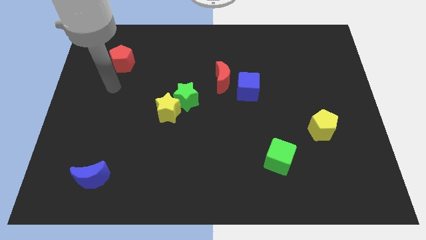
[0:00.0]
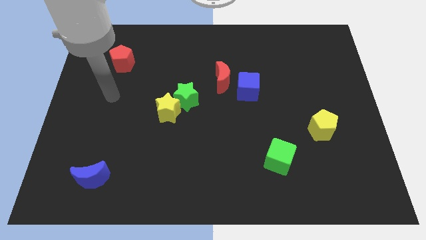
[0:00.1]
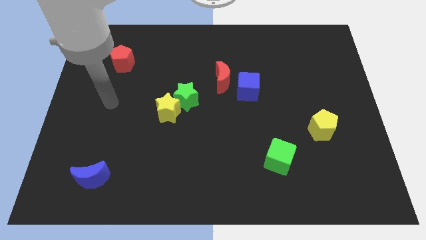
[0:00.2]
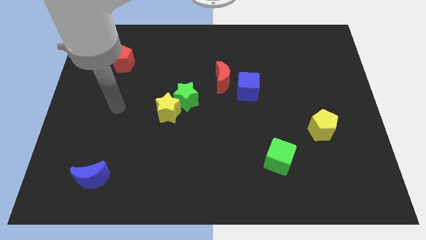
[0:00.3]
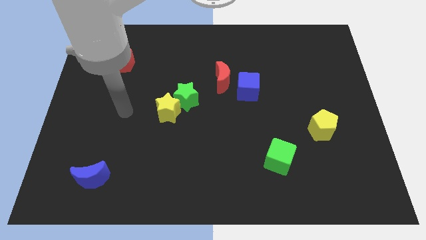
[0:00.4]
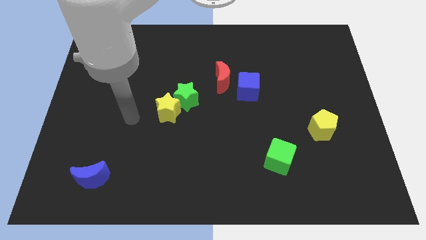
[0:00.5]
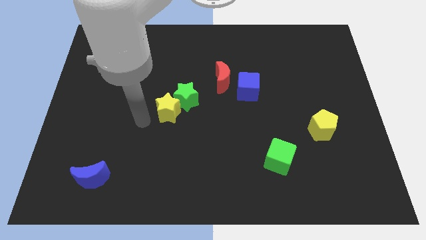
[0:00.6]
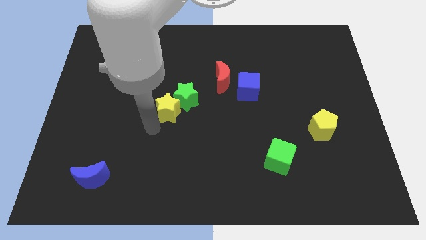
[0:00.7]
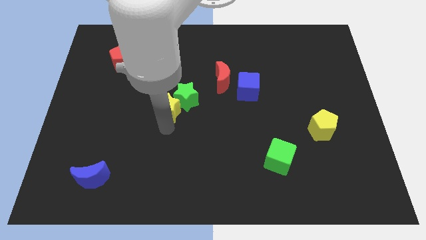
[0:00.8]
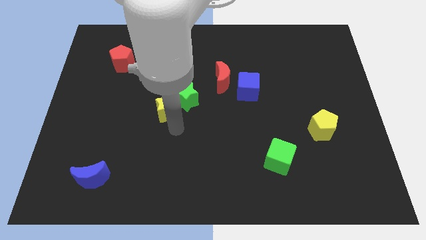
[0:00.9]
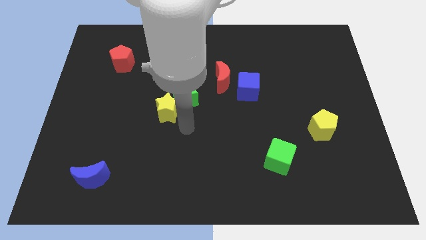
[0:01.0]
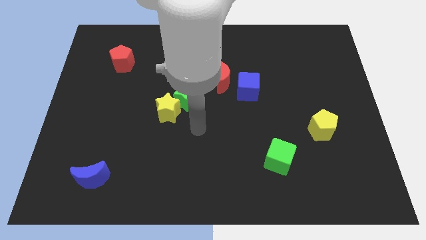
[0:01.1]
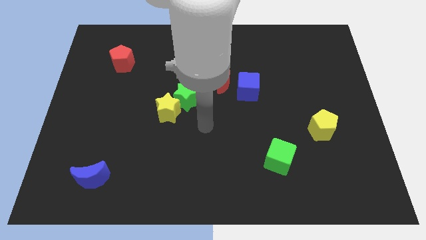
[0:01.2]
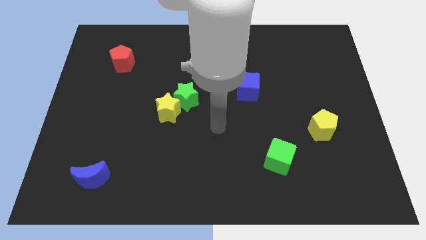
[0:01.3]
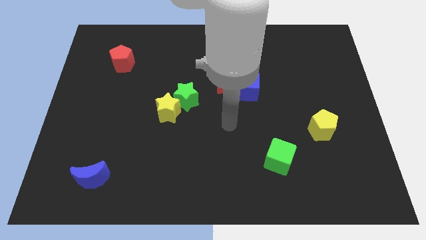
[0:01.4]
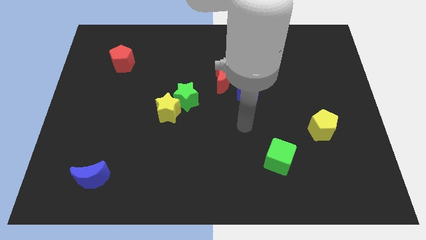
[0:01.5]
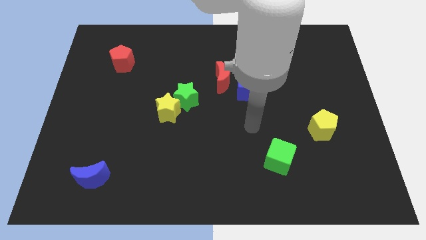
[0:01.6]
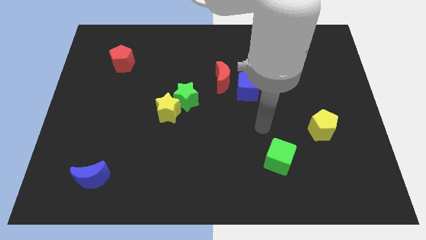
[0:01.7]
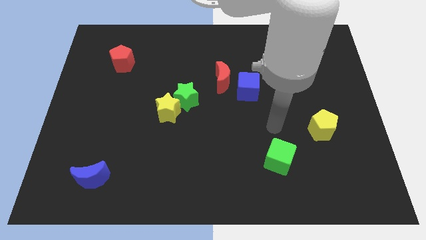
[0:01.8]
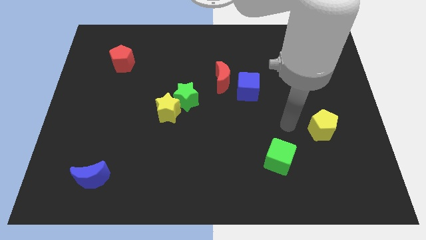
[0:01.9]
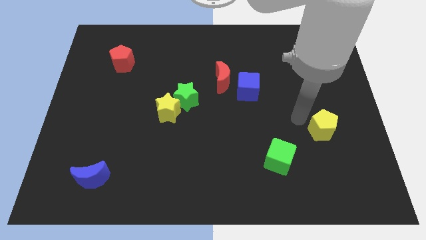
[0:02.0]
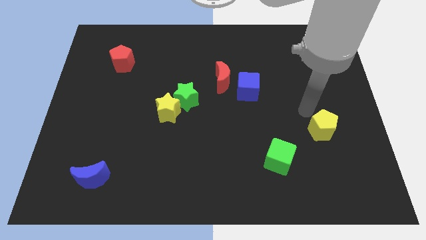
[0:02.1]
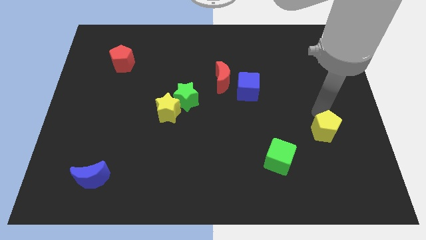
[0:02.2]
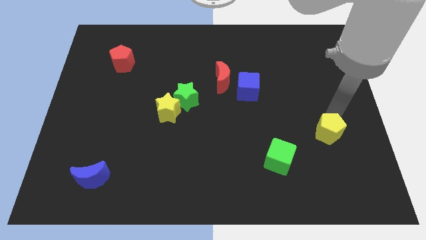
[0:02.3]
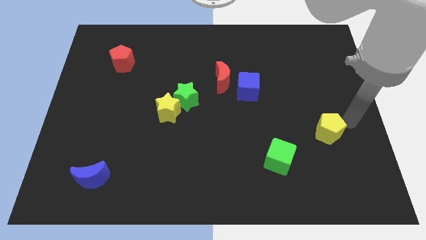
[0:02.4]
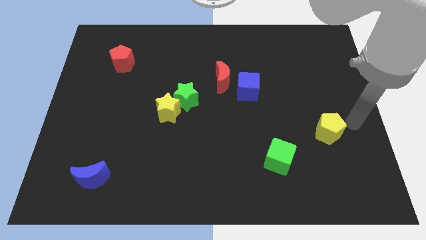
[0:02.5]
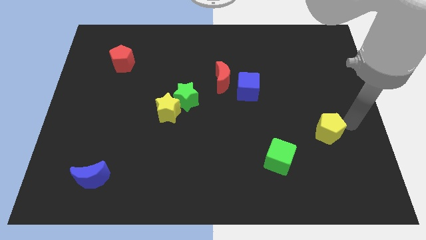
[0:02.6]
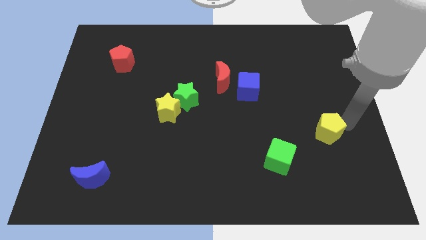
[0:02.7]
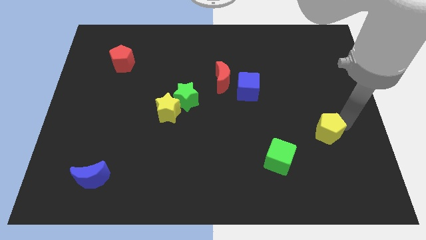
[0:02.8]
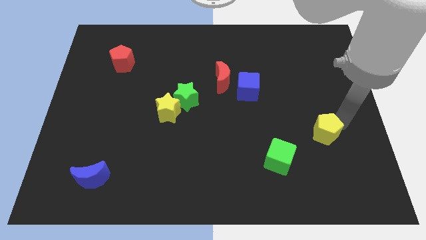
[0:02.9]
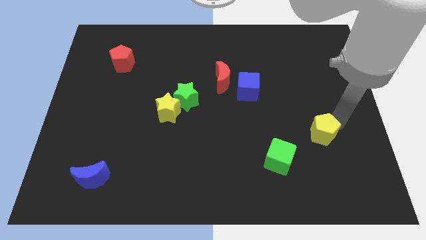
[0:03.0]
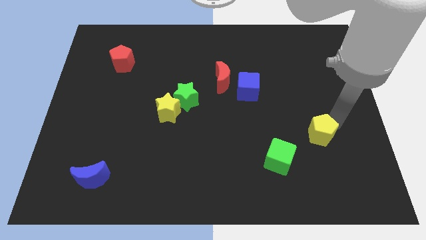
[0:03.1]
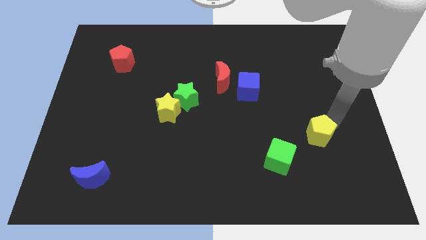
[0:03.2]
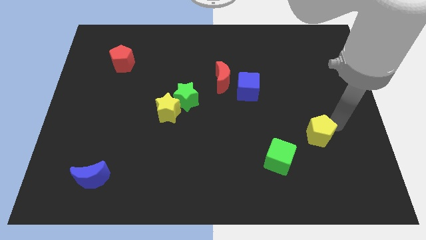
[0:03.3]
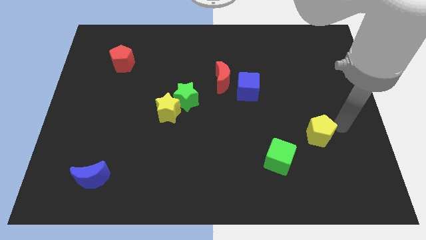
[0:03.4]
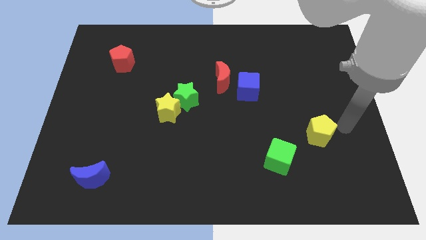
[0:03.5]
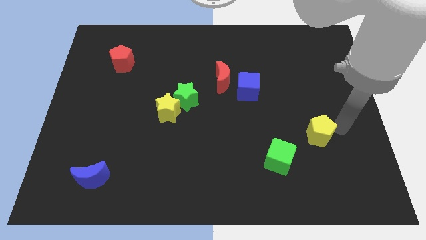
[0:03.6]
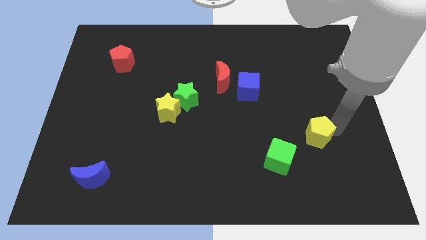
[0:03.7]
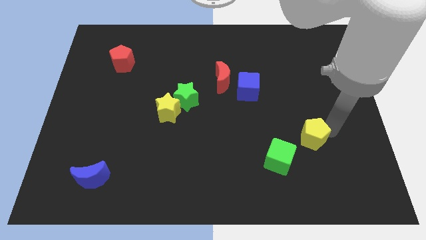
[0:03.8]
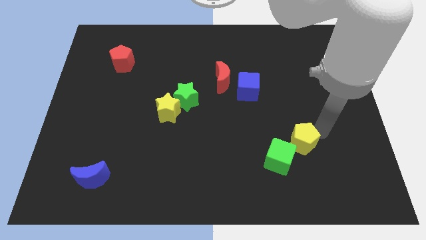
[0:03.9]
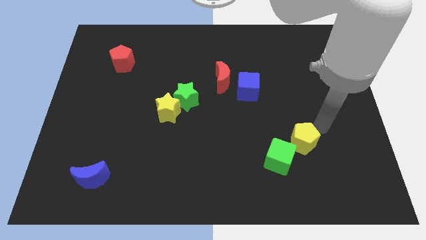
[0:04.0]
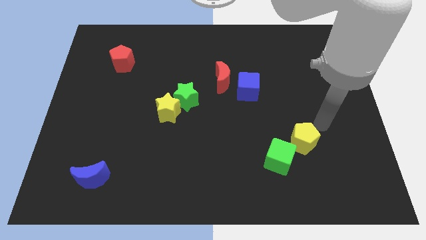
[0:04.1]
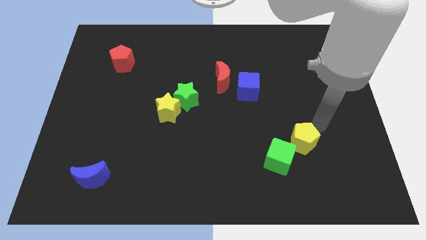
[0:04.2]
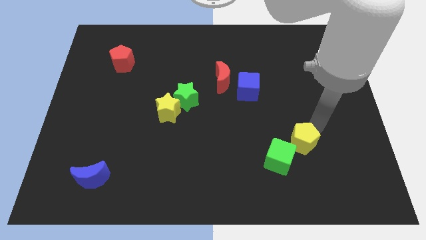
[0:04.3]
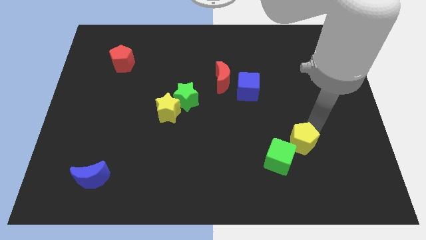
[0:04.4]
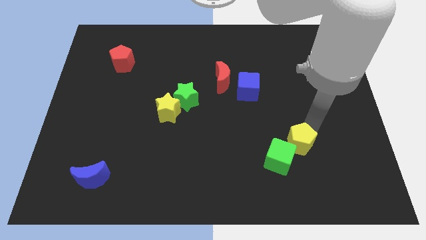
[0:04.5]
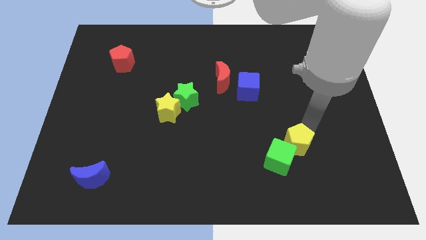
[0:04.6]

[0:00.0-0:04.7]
move the yellow pentagon next to the green cube

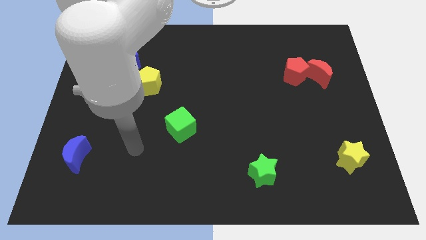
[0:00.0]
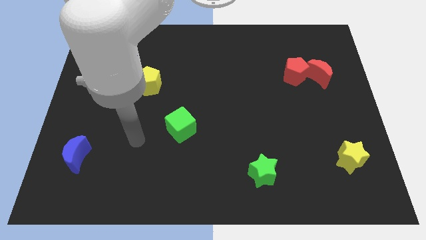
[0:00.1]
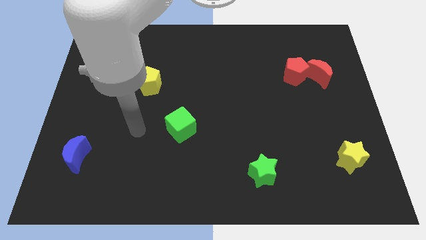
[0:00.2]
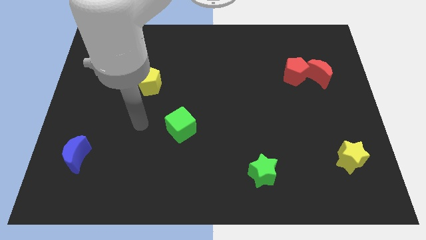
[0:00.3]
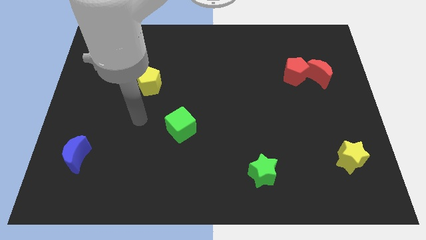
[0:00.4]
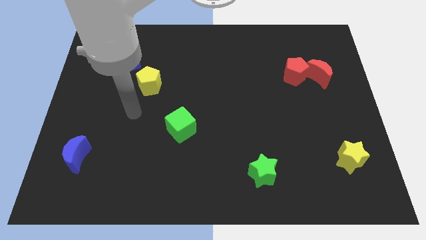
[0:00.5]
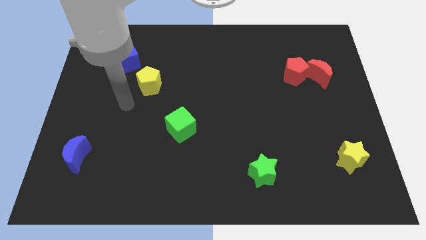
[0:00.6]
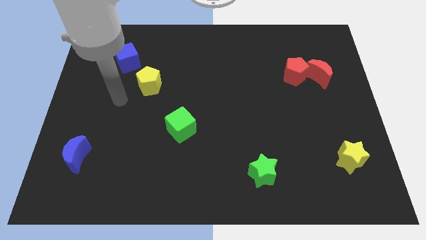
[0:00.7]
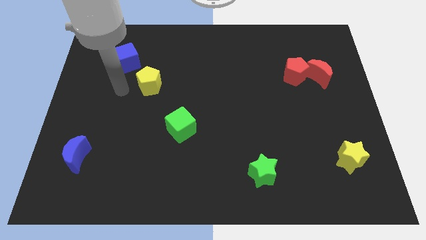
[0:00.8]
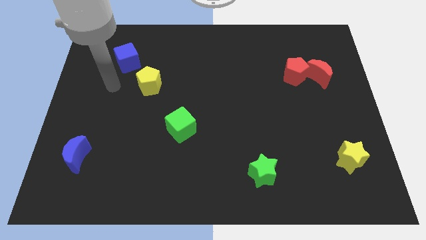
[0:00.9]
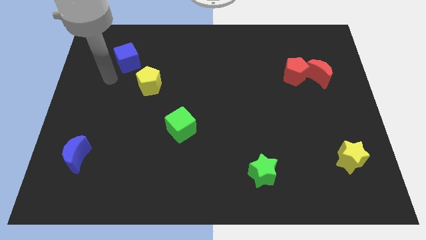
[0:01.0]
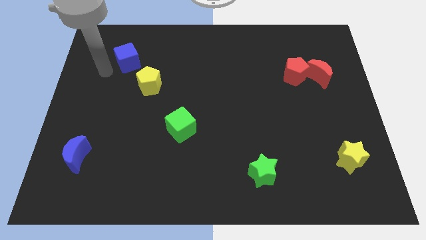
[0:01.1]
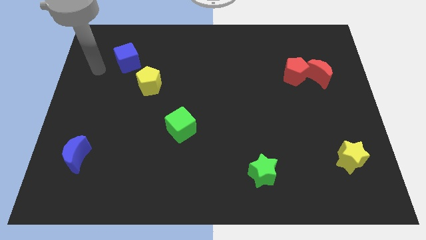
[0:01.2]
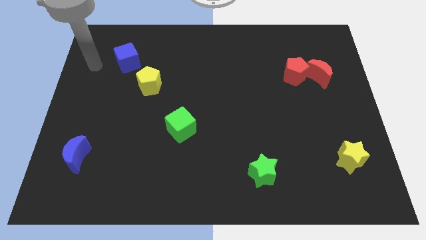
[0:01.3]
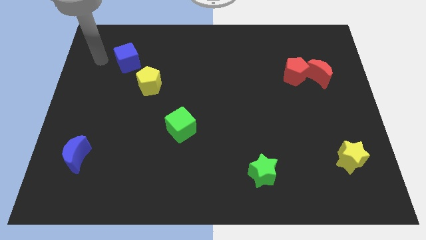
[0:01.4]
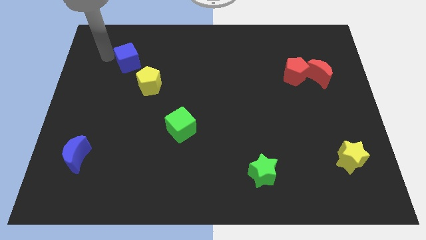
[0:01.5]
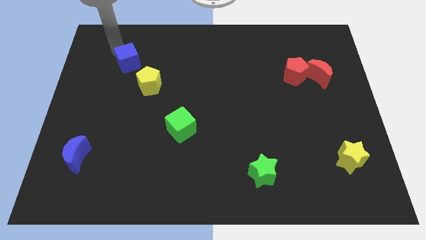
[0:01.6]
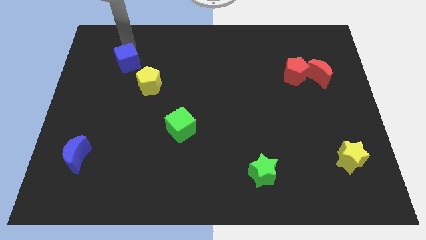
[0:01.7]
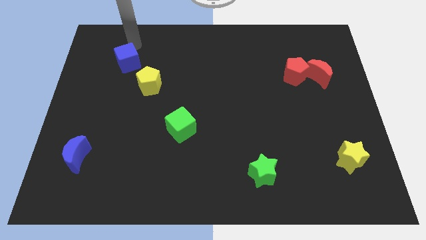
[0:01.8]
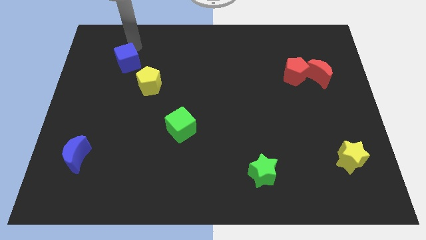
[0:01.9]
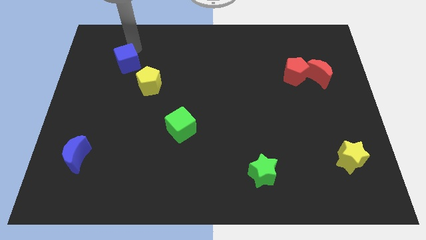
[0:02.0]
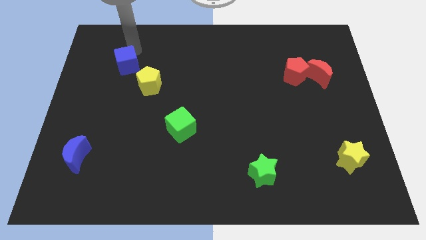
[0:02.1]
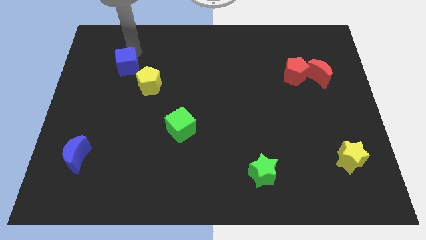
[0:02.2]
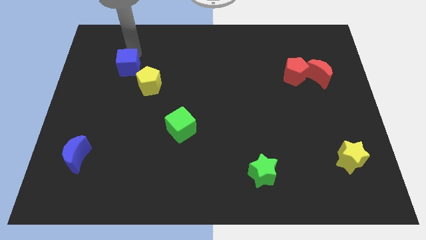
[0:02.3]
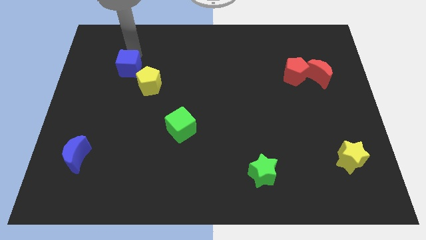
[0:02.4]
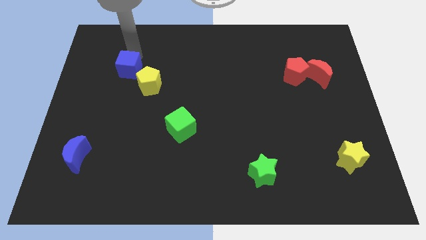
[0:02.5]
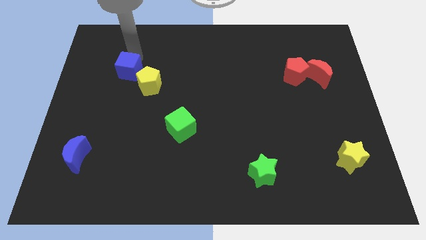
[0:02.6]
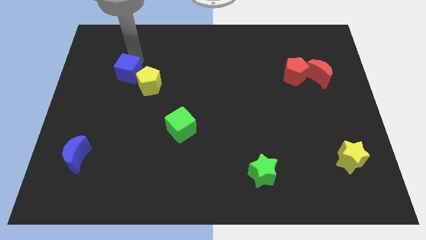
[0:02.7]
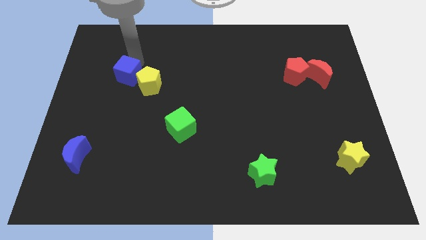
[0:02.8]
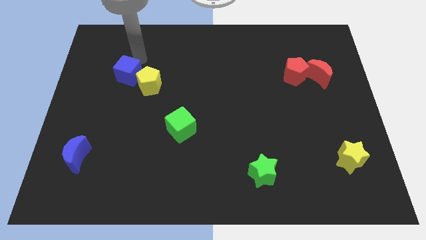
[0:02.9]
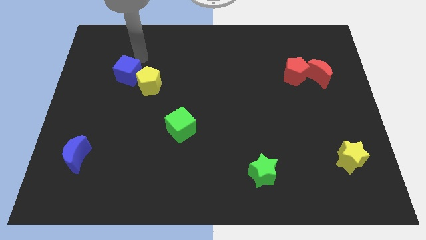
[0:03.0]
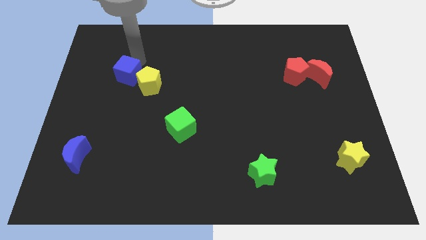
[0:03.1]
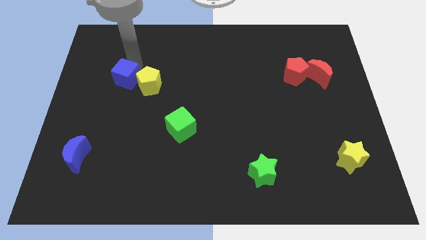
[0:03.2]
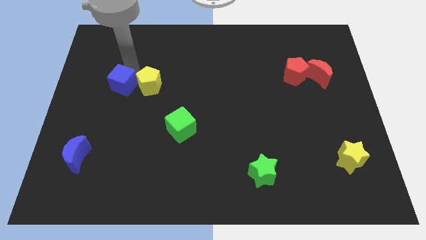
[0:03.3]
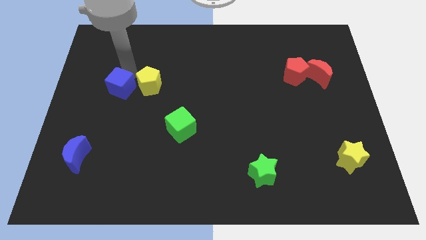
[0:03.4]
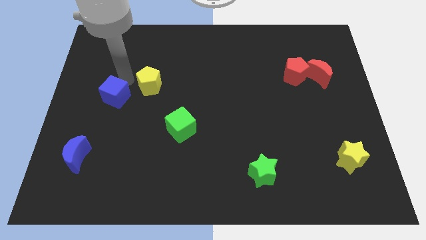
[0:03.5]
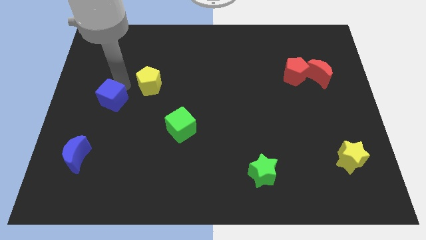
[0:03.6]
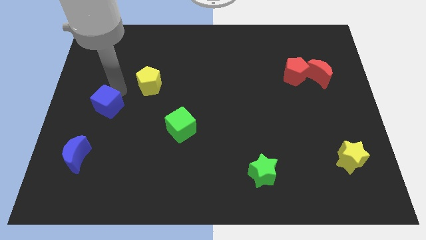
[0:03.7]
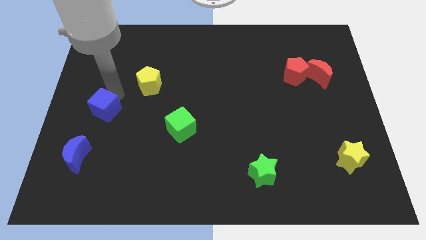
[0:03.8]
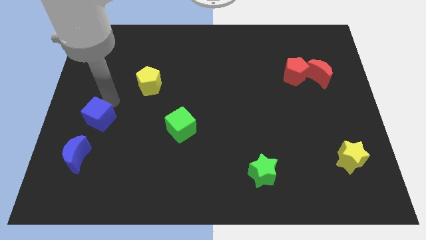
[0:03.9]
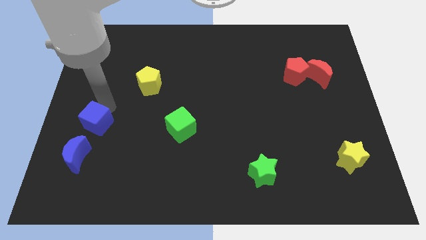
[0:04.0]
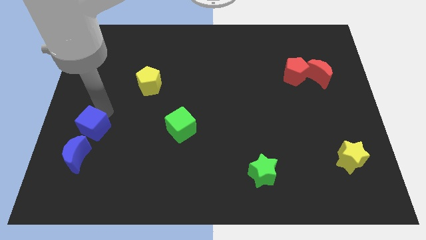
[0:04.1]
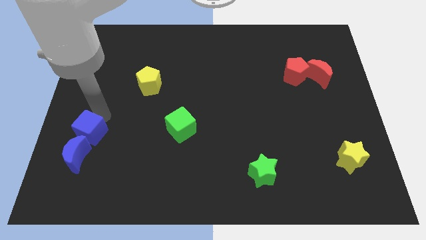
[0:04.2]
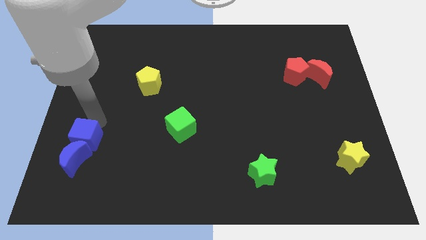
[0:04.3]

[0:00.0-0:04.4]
put the blue cube next to the blue moon
